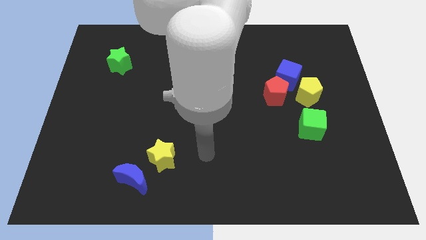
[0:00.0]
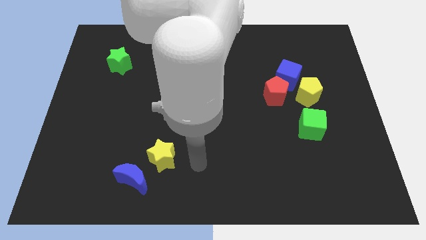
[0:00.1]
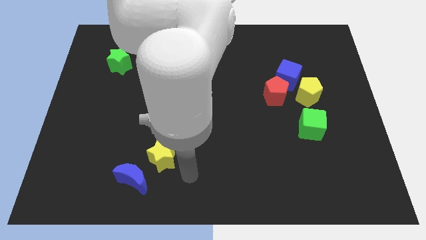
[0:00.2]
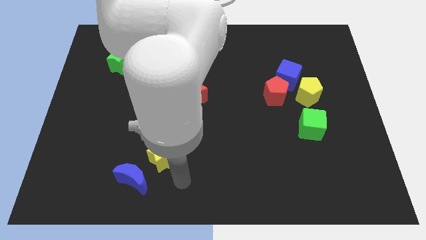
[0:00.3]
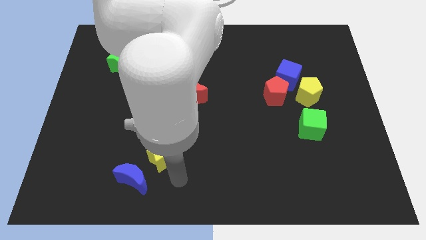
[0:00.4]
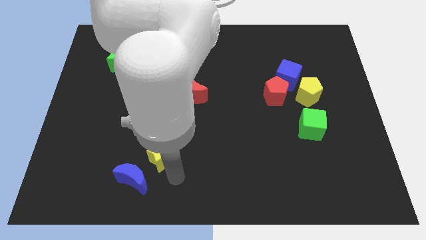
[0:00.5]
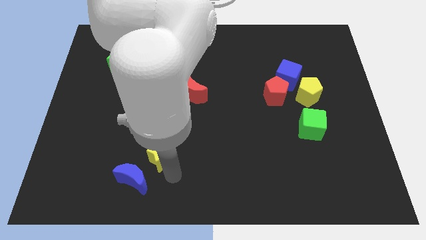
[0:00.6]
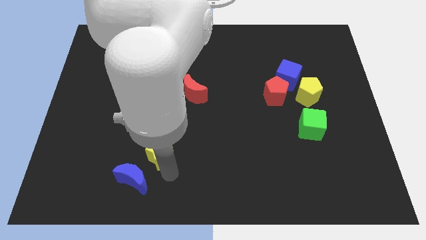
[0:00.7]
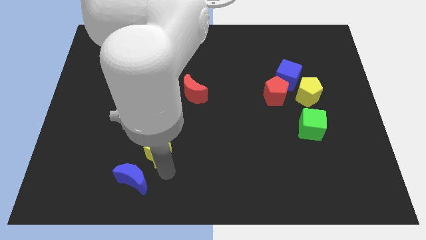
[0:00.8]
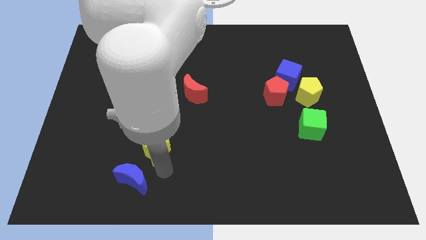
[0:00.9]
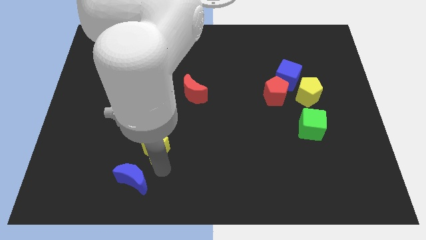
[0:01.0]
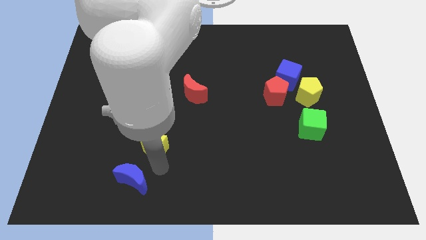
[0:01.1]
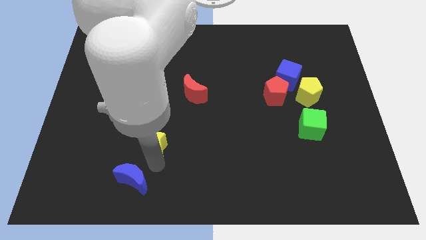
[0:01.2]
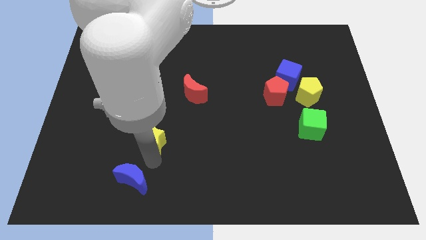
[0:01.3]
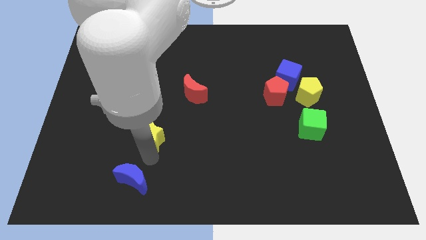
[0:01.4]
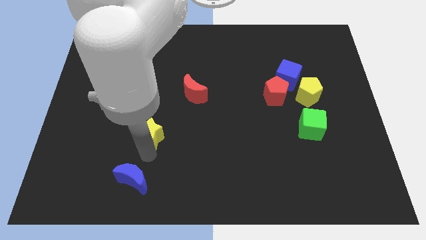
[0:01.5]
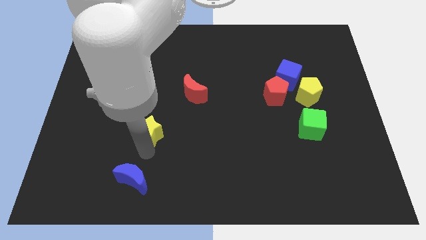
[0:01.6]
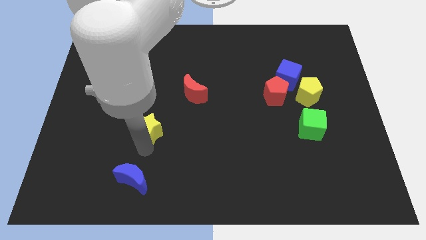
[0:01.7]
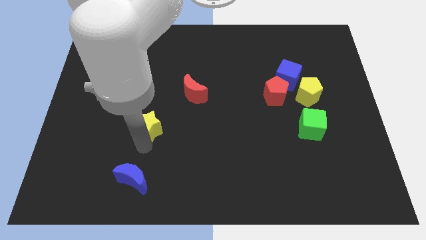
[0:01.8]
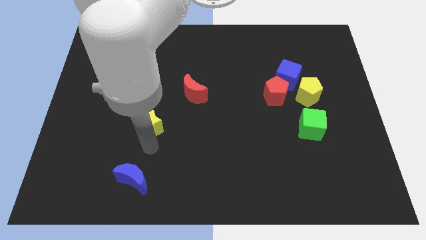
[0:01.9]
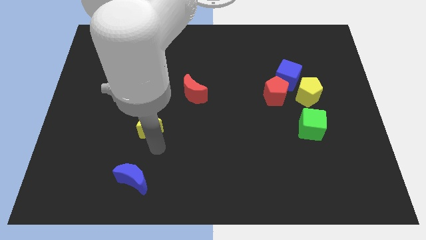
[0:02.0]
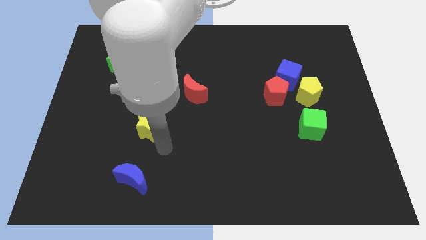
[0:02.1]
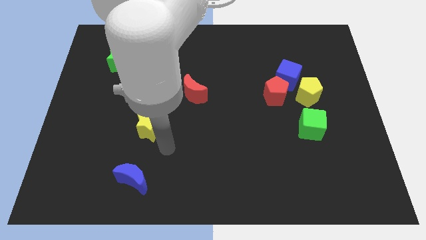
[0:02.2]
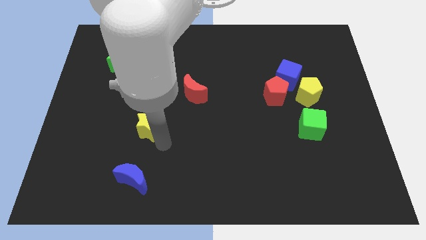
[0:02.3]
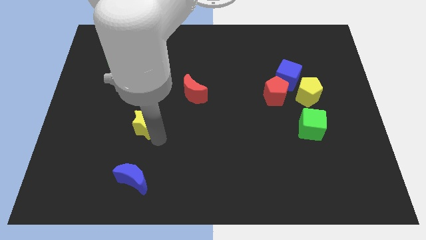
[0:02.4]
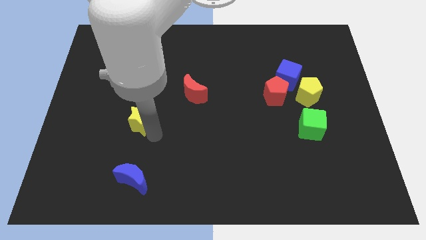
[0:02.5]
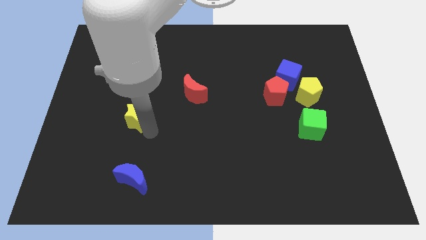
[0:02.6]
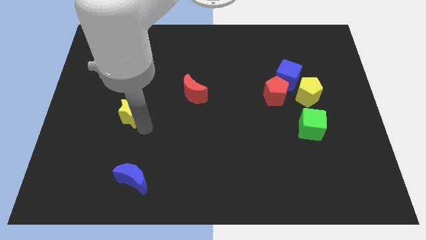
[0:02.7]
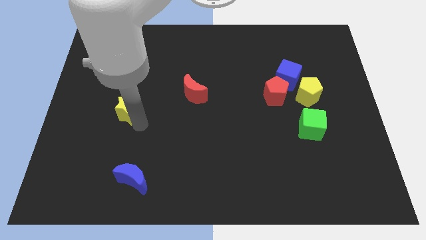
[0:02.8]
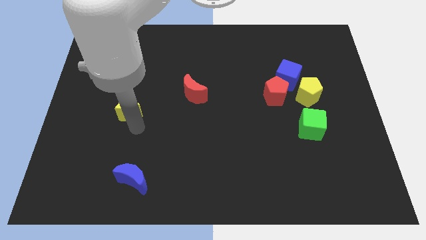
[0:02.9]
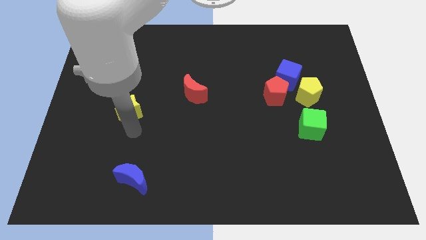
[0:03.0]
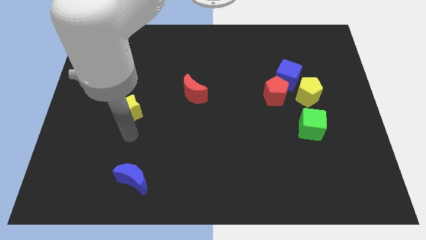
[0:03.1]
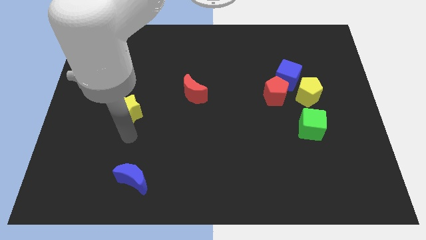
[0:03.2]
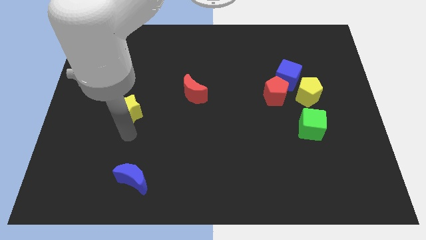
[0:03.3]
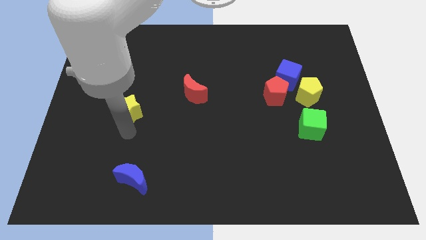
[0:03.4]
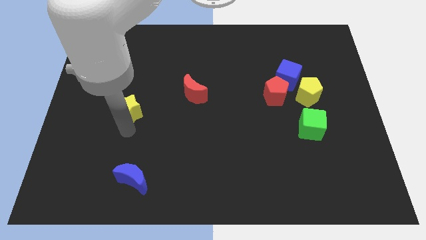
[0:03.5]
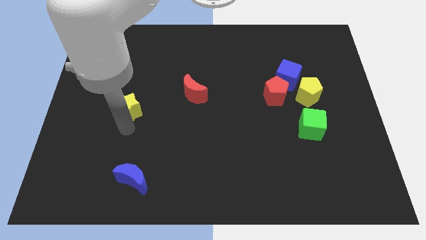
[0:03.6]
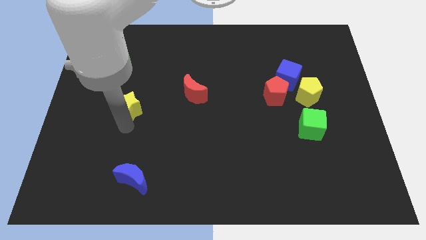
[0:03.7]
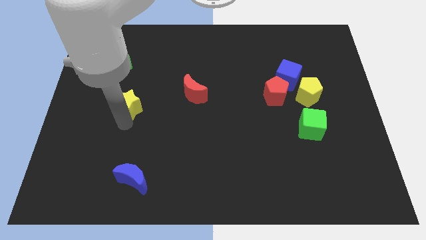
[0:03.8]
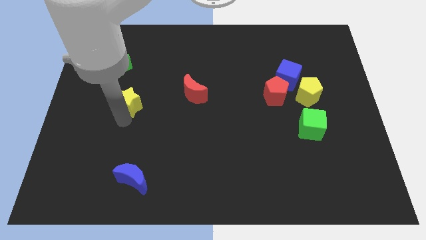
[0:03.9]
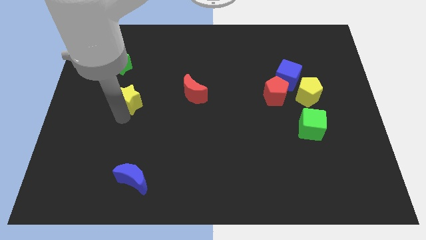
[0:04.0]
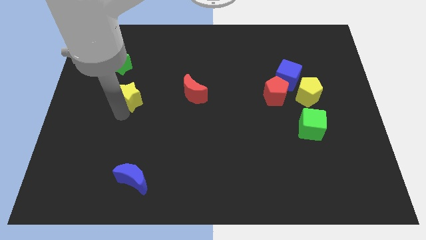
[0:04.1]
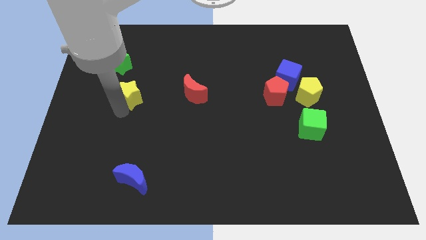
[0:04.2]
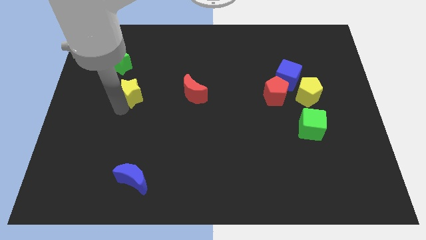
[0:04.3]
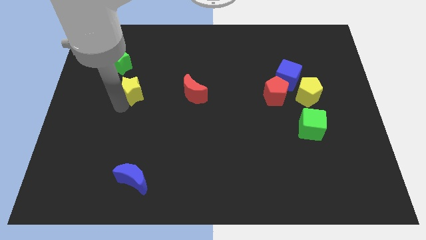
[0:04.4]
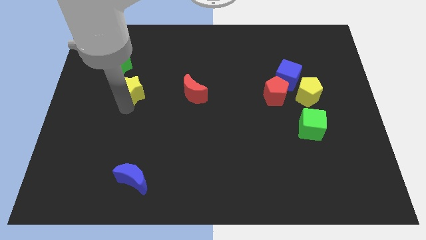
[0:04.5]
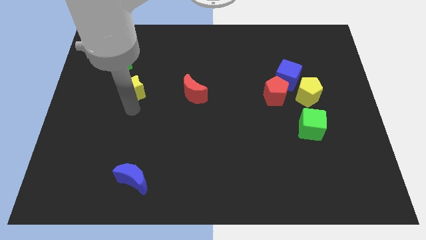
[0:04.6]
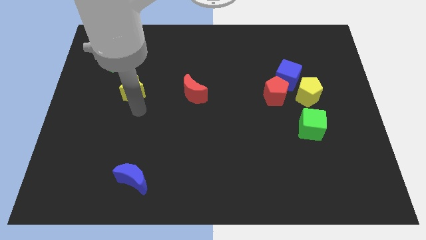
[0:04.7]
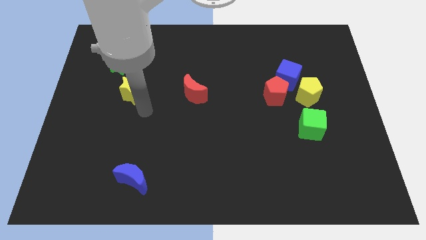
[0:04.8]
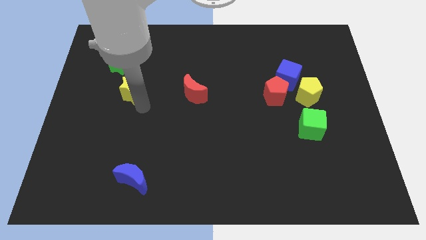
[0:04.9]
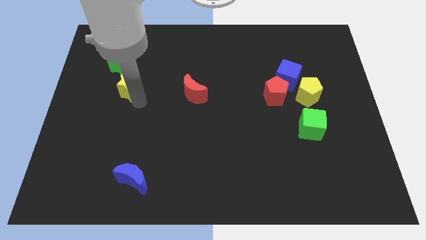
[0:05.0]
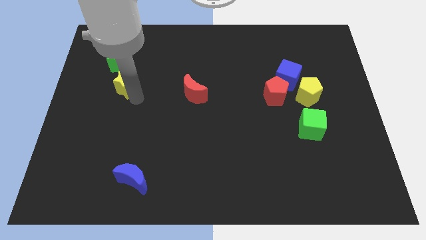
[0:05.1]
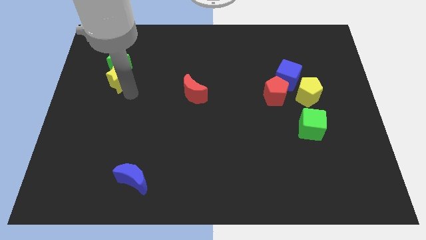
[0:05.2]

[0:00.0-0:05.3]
push the yellow star to the green star

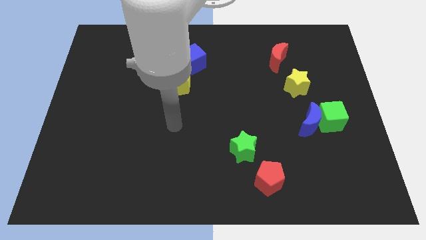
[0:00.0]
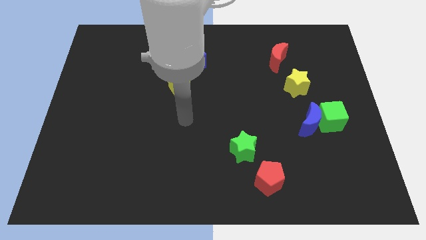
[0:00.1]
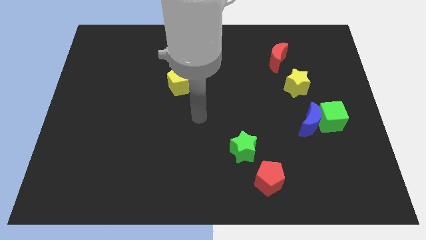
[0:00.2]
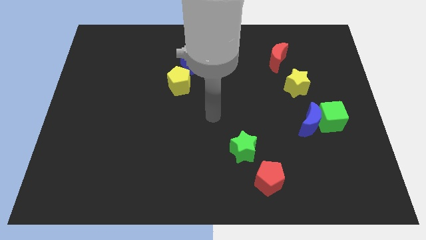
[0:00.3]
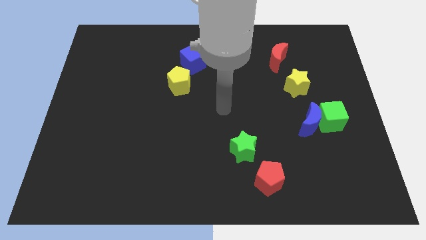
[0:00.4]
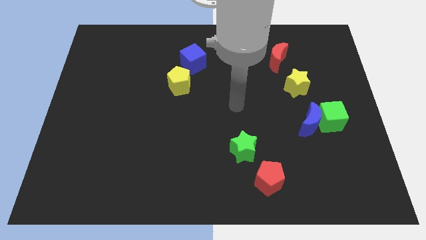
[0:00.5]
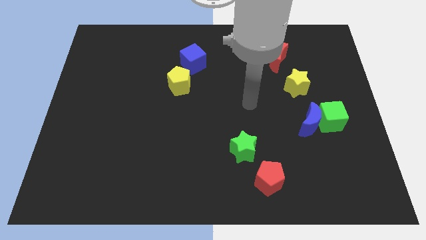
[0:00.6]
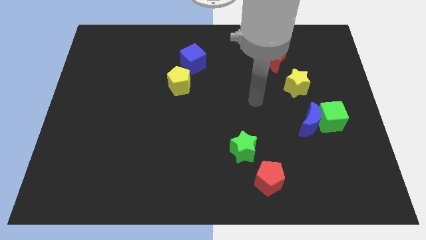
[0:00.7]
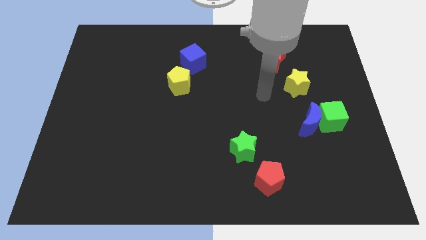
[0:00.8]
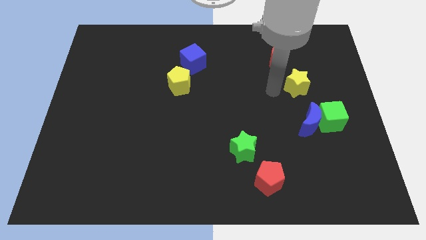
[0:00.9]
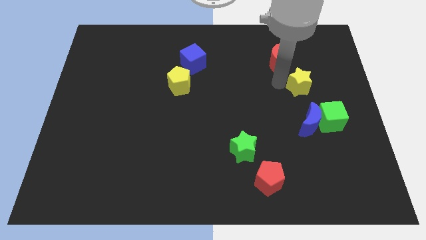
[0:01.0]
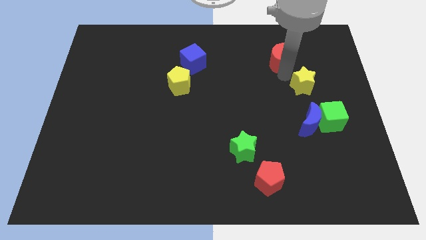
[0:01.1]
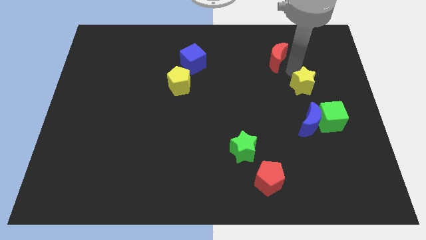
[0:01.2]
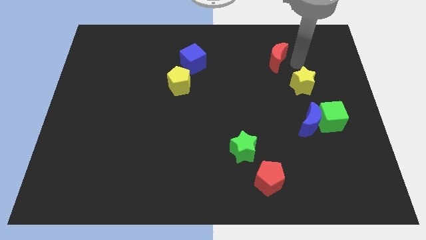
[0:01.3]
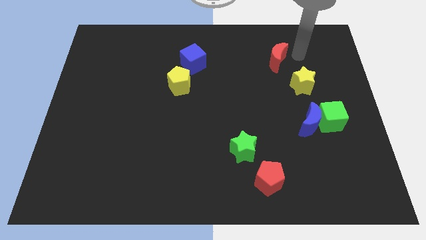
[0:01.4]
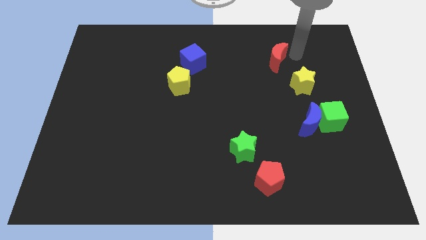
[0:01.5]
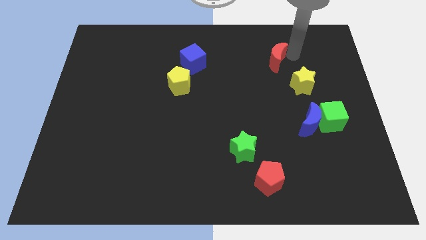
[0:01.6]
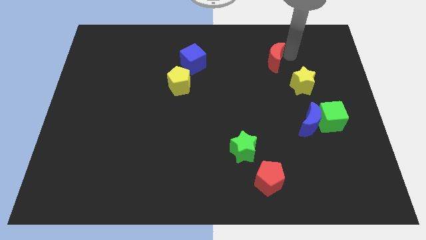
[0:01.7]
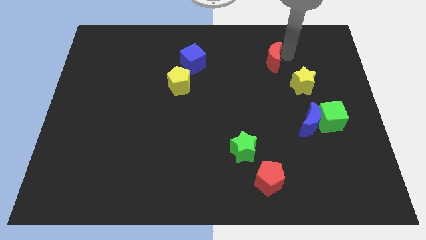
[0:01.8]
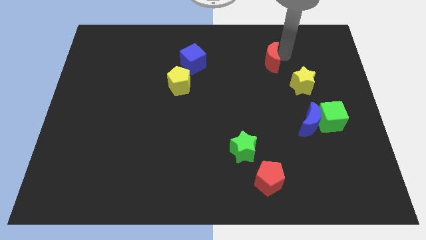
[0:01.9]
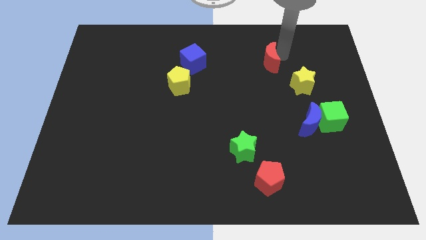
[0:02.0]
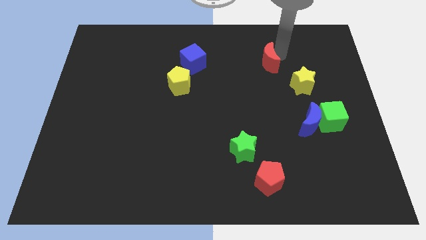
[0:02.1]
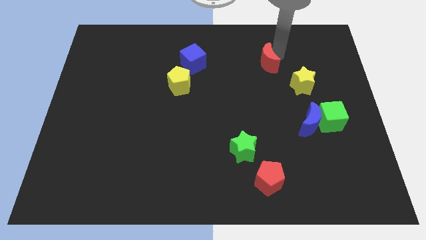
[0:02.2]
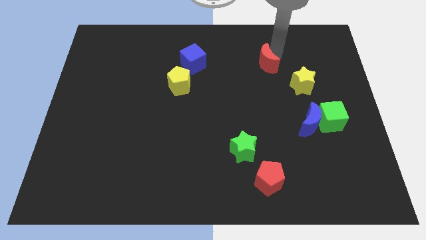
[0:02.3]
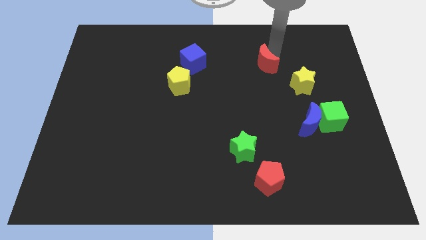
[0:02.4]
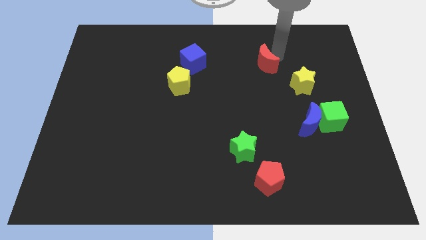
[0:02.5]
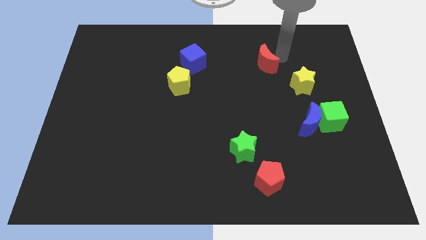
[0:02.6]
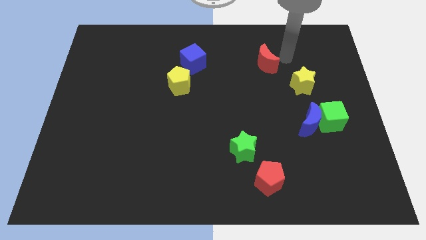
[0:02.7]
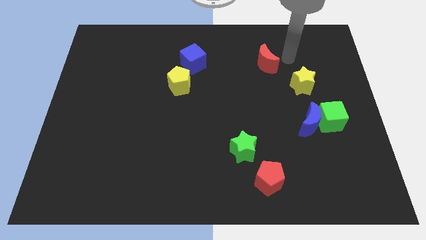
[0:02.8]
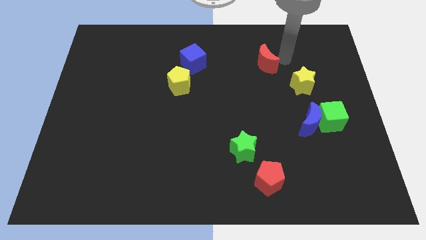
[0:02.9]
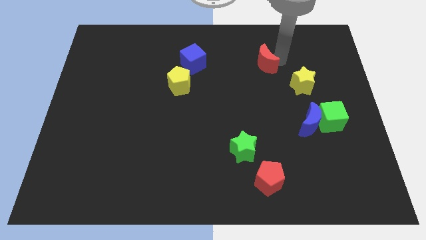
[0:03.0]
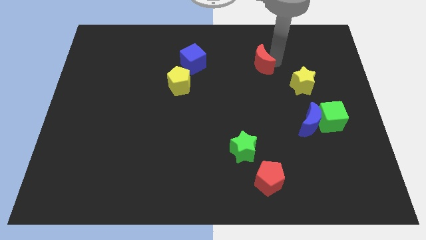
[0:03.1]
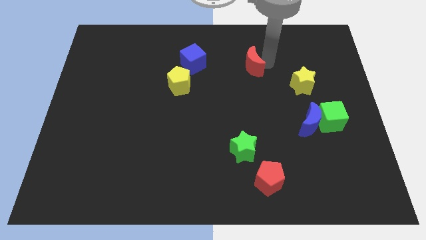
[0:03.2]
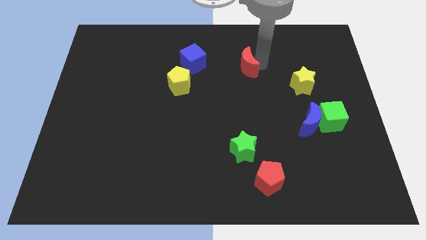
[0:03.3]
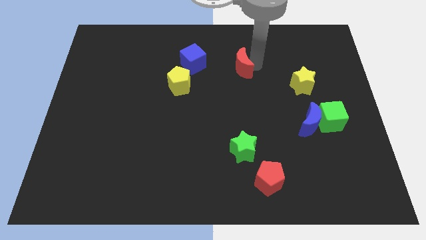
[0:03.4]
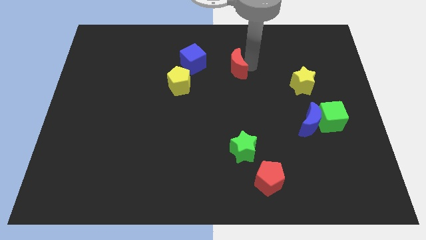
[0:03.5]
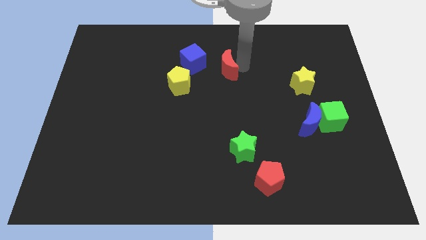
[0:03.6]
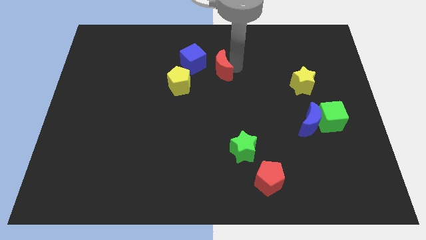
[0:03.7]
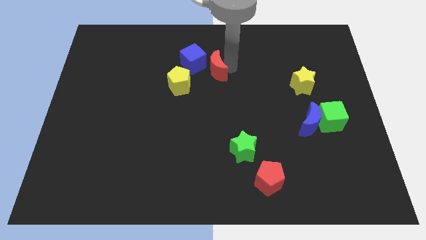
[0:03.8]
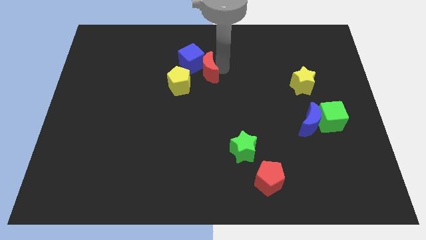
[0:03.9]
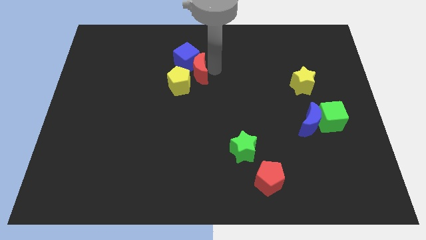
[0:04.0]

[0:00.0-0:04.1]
push the red moon close to the yellow pentagon
